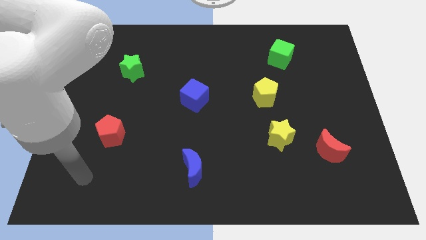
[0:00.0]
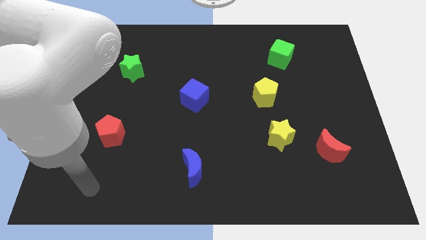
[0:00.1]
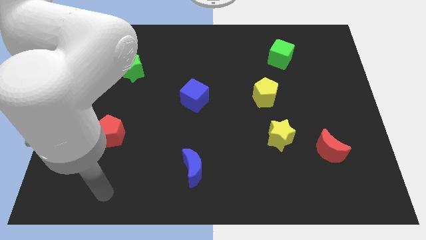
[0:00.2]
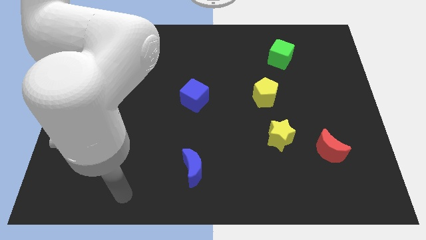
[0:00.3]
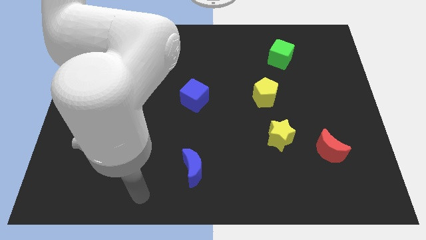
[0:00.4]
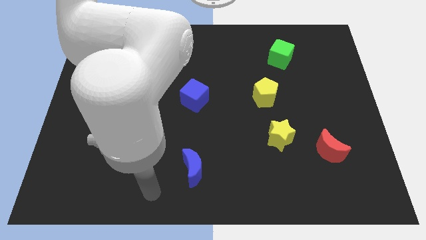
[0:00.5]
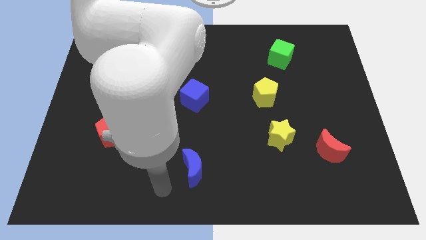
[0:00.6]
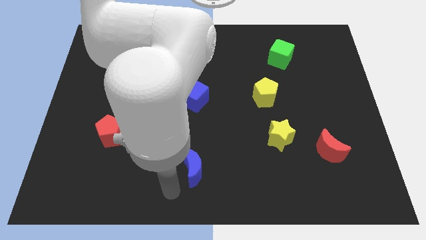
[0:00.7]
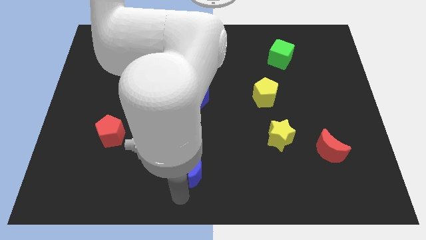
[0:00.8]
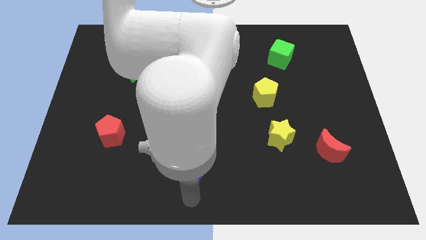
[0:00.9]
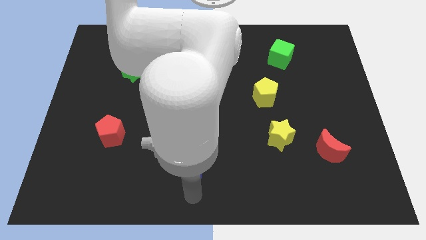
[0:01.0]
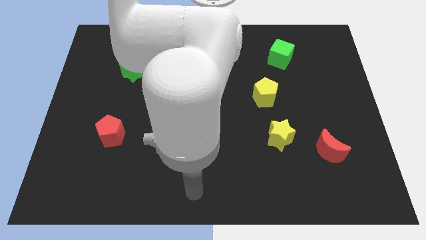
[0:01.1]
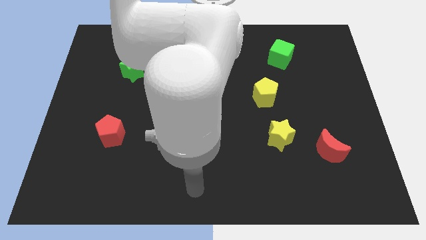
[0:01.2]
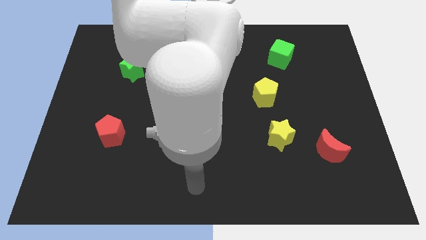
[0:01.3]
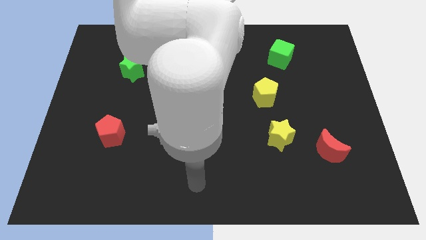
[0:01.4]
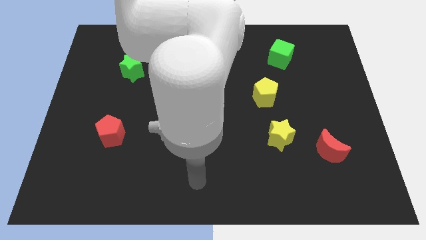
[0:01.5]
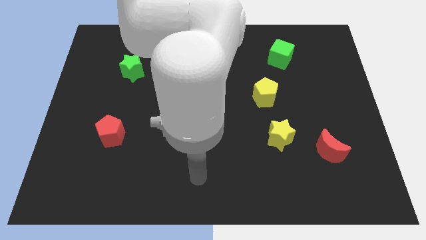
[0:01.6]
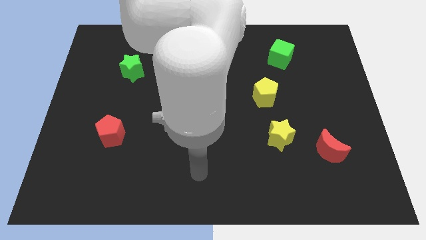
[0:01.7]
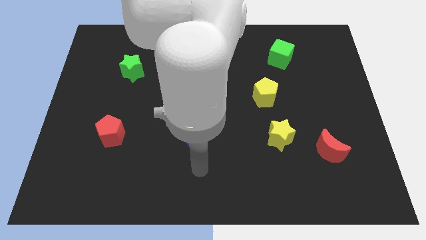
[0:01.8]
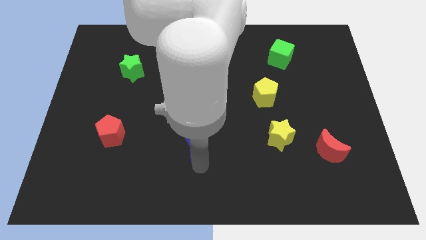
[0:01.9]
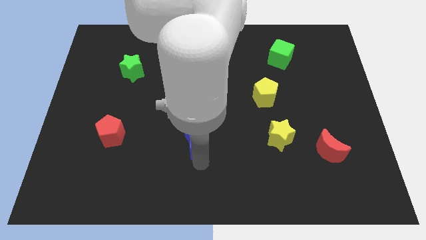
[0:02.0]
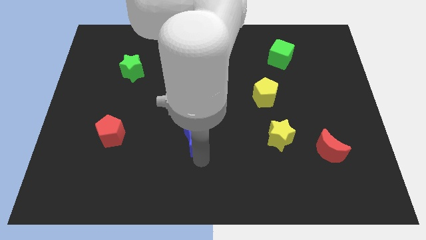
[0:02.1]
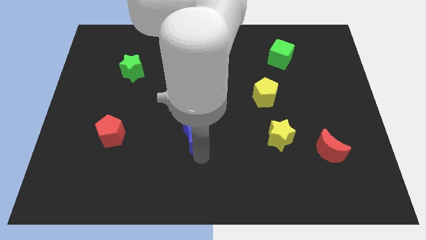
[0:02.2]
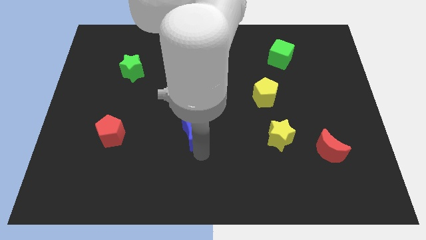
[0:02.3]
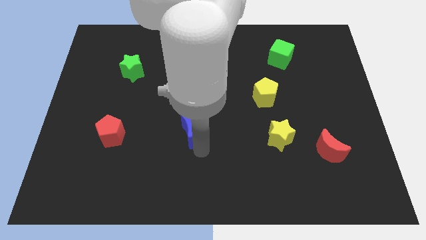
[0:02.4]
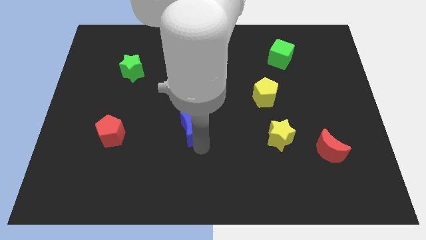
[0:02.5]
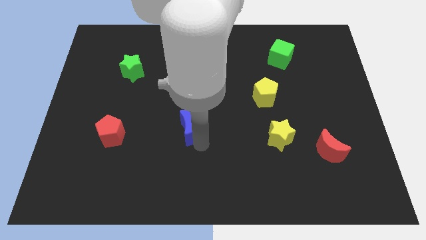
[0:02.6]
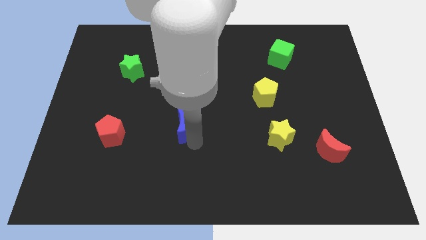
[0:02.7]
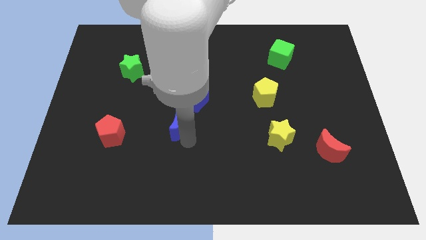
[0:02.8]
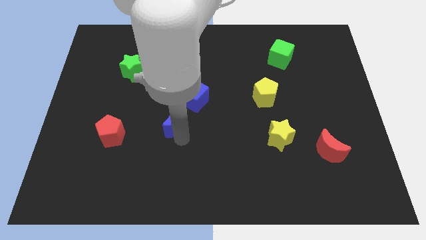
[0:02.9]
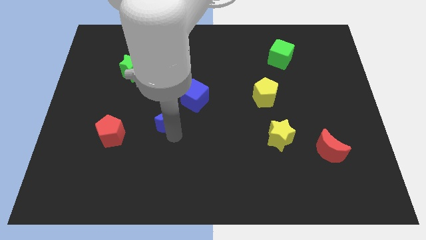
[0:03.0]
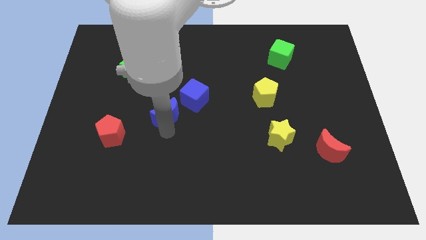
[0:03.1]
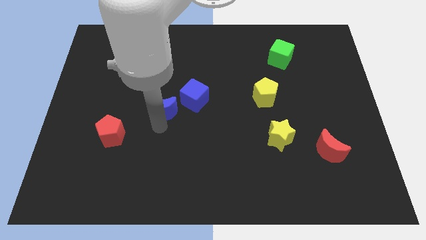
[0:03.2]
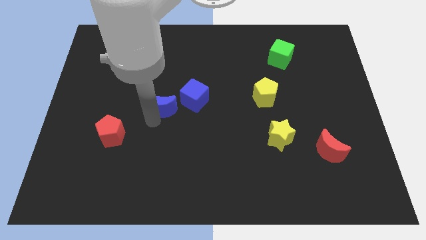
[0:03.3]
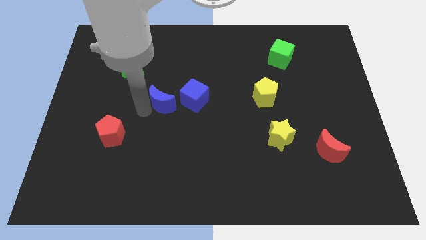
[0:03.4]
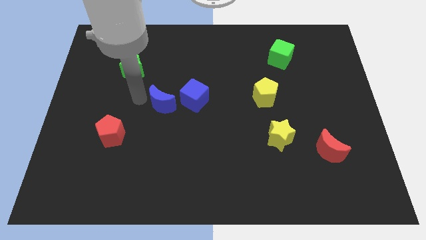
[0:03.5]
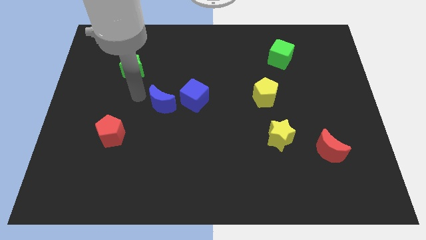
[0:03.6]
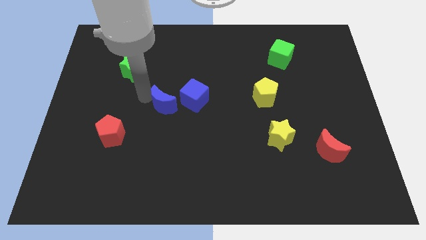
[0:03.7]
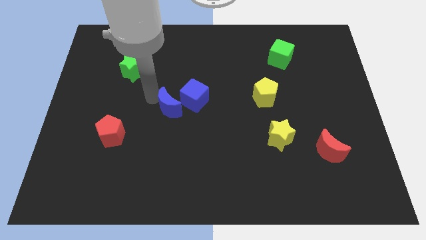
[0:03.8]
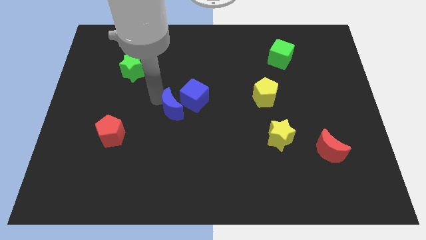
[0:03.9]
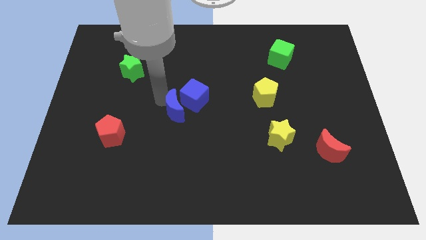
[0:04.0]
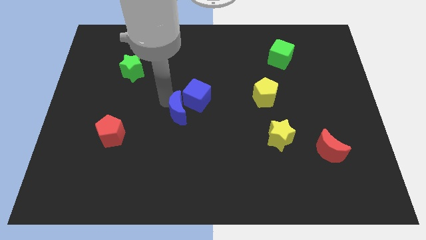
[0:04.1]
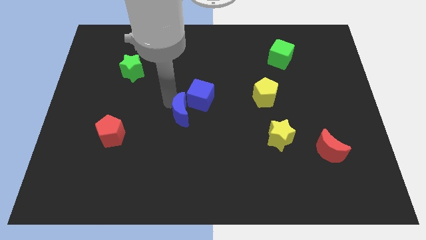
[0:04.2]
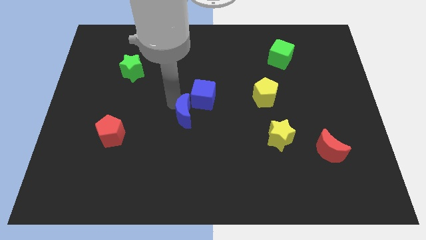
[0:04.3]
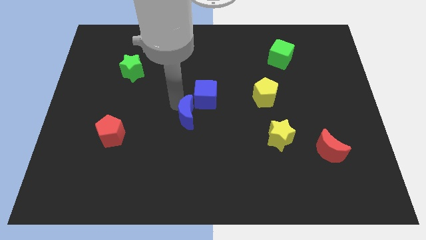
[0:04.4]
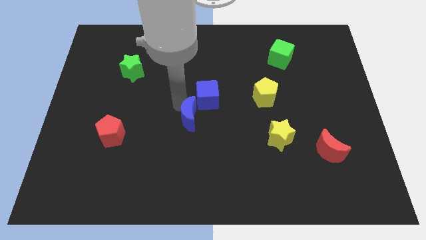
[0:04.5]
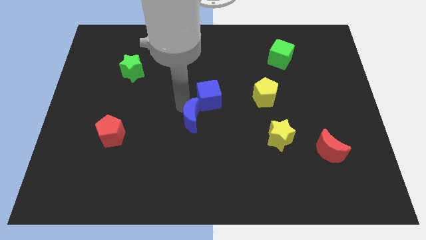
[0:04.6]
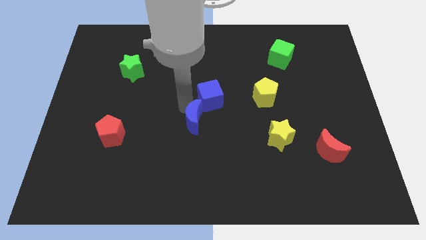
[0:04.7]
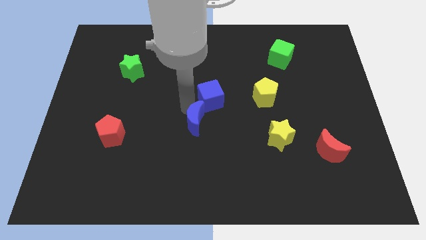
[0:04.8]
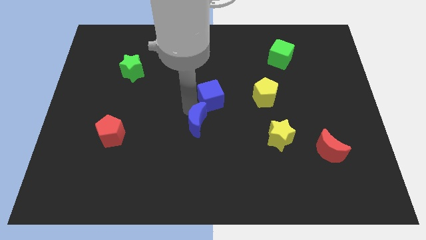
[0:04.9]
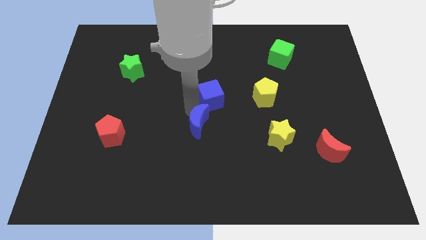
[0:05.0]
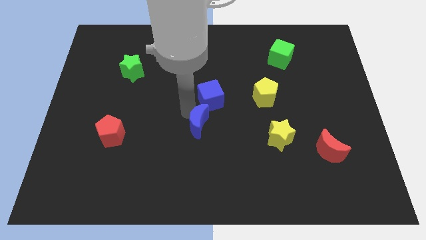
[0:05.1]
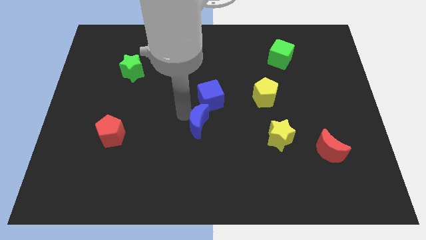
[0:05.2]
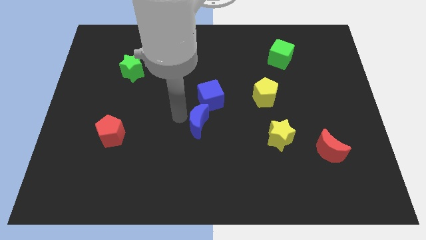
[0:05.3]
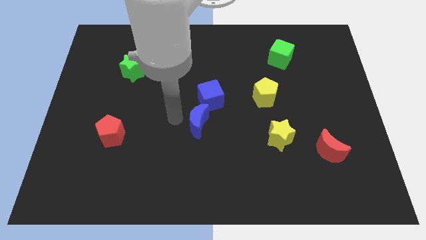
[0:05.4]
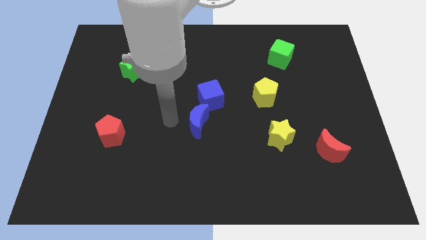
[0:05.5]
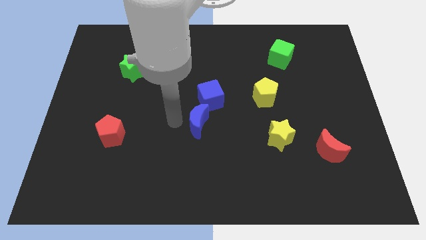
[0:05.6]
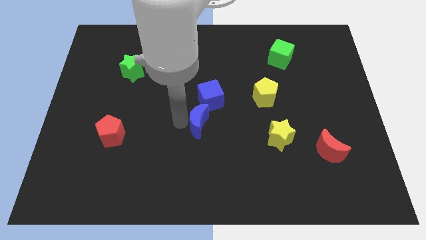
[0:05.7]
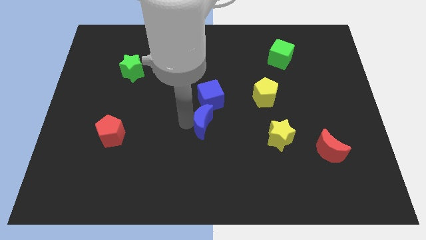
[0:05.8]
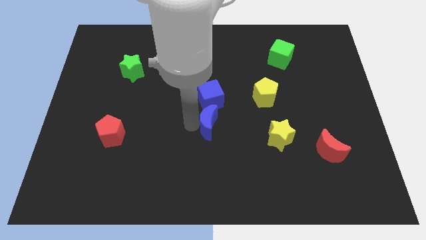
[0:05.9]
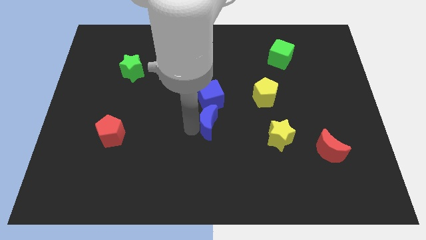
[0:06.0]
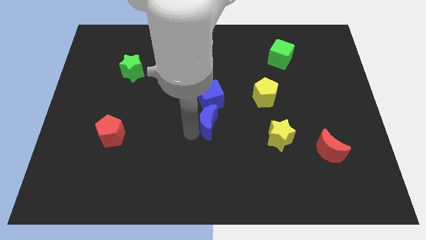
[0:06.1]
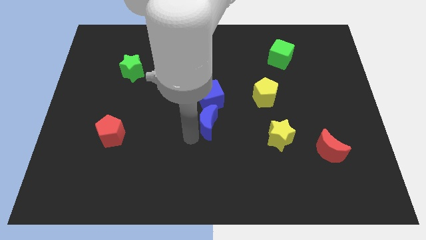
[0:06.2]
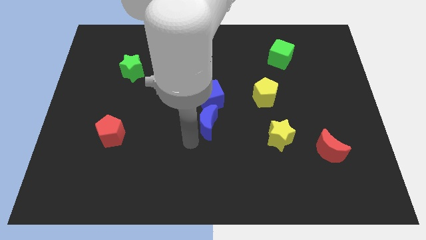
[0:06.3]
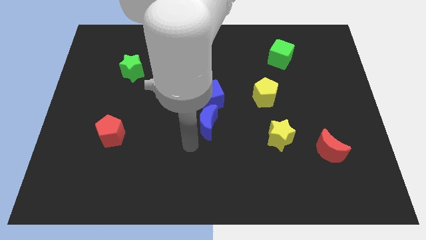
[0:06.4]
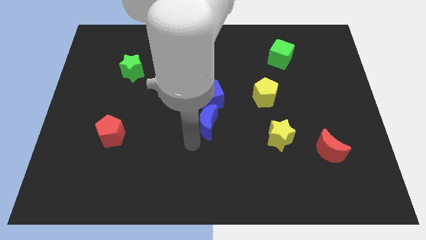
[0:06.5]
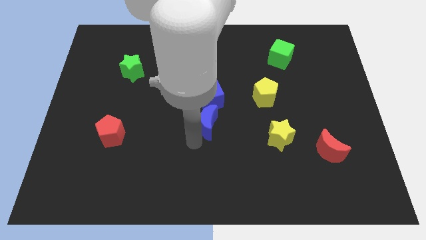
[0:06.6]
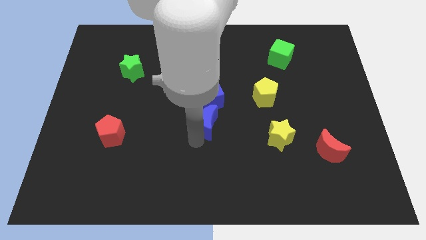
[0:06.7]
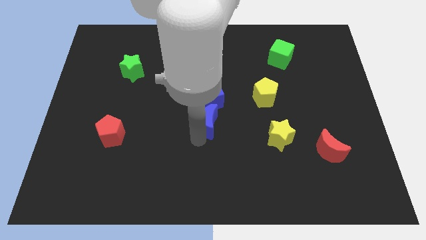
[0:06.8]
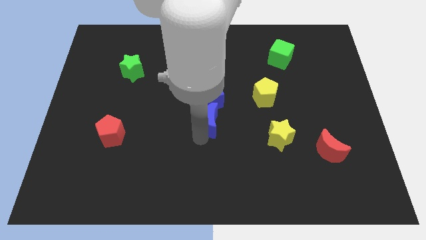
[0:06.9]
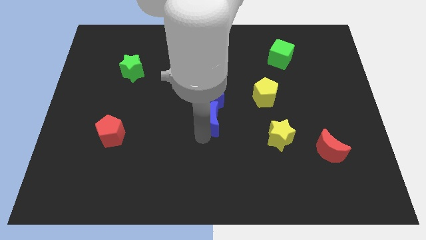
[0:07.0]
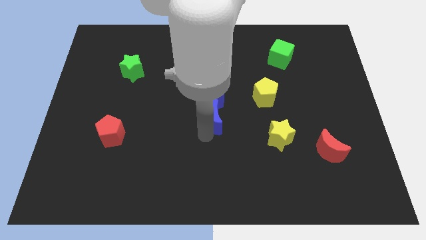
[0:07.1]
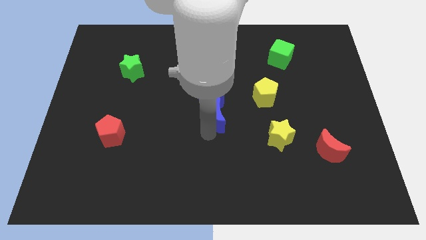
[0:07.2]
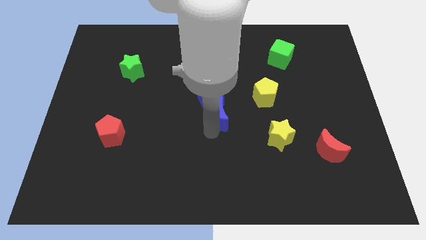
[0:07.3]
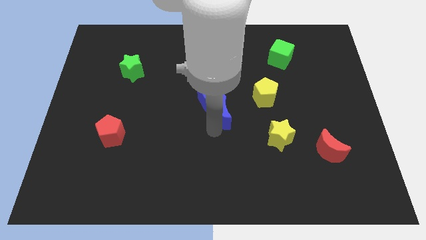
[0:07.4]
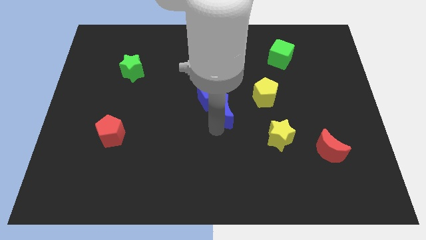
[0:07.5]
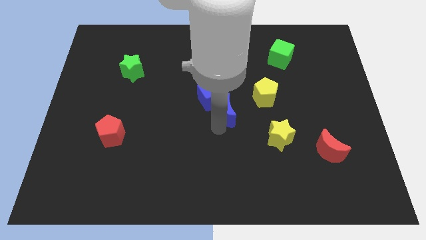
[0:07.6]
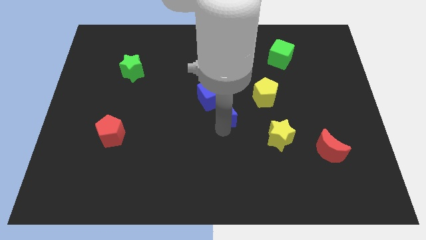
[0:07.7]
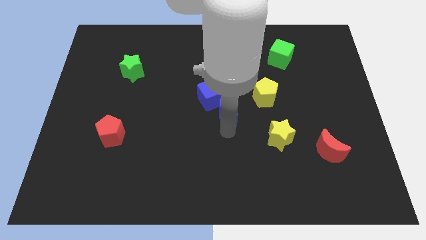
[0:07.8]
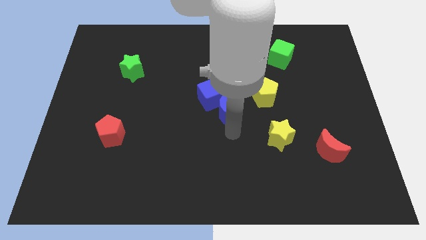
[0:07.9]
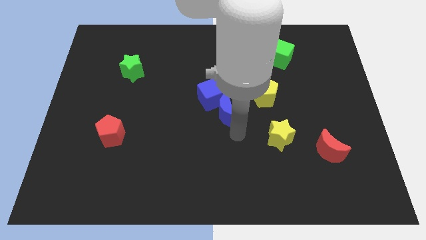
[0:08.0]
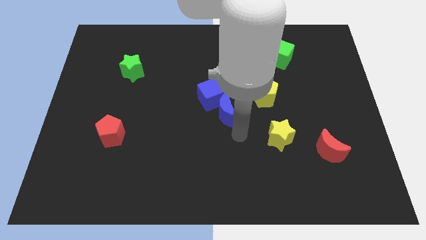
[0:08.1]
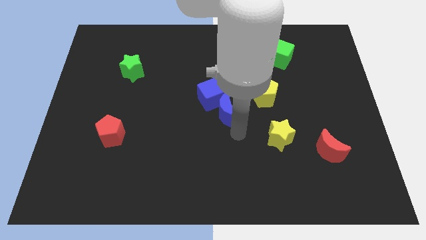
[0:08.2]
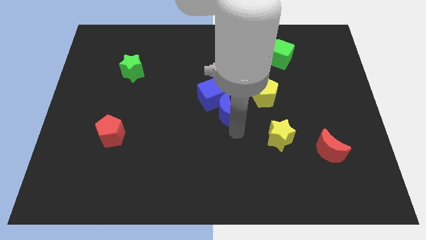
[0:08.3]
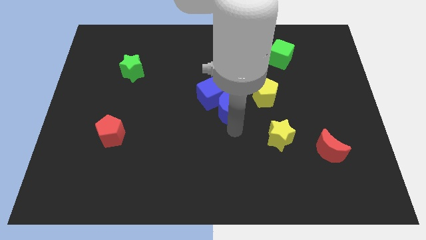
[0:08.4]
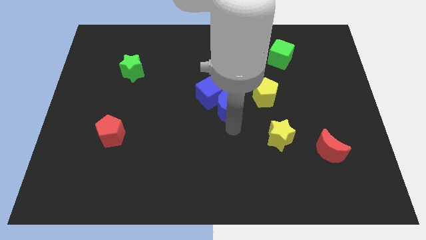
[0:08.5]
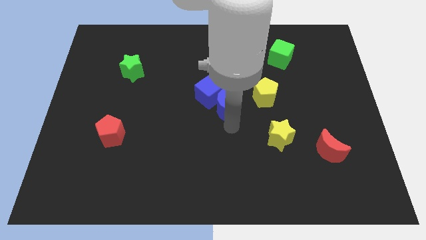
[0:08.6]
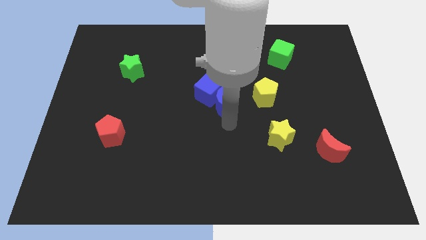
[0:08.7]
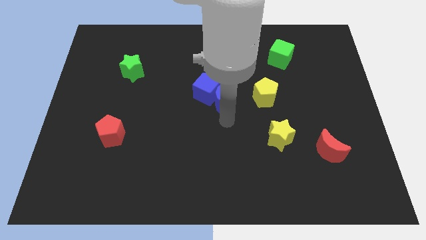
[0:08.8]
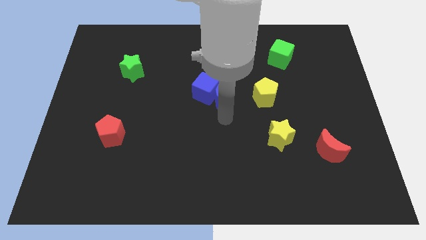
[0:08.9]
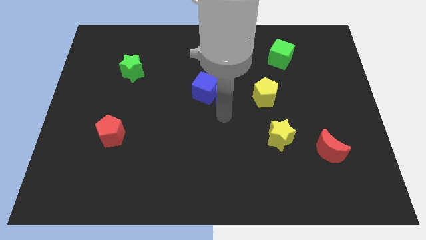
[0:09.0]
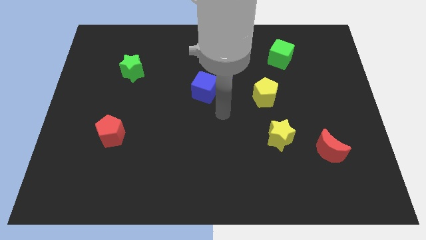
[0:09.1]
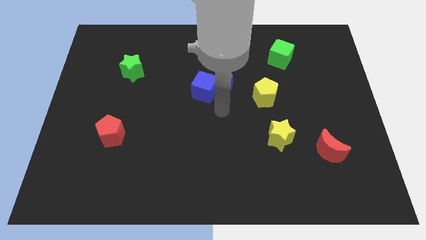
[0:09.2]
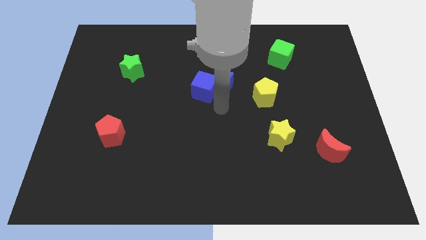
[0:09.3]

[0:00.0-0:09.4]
push the blue moon up
